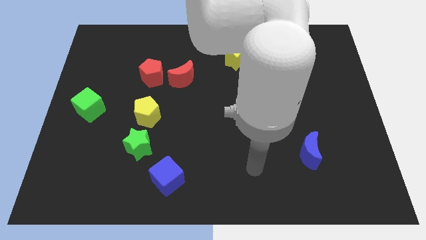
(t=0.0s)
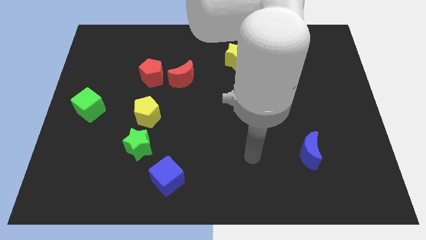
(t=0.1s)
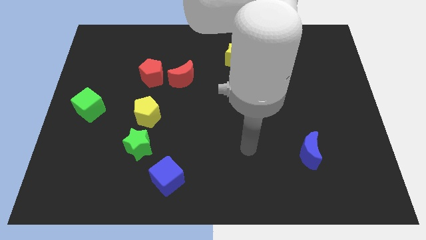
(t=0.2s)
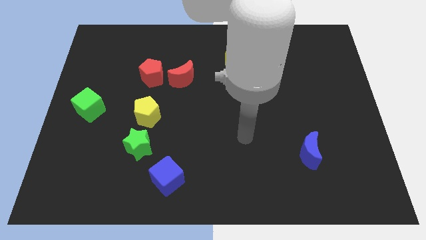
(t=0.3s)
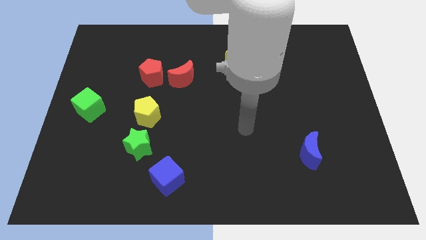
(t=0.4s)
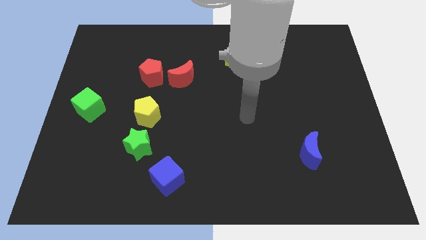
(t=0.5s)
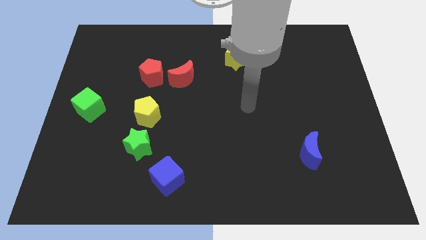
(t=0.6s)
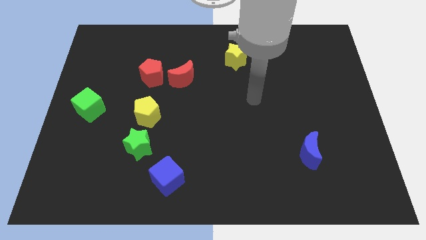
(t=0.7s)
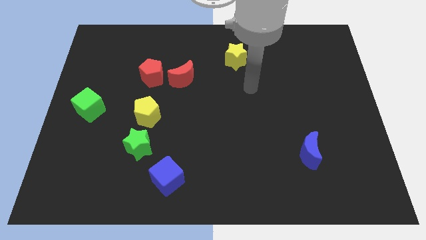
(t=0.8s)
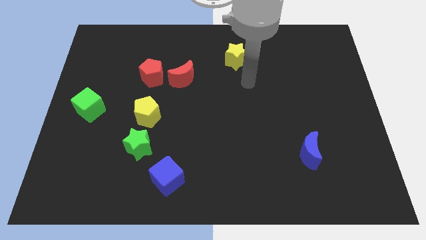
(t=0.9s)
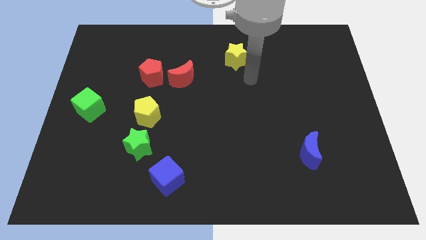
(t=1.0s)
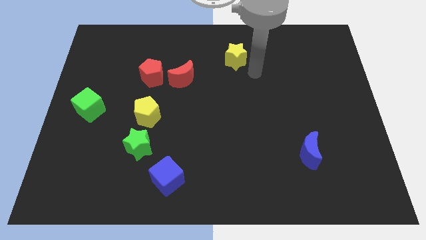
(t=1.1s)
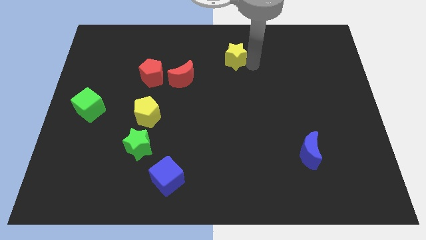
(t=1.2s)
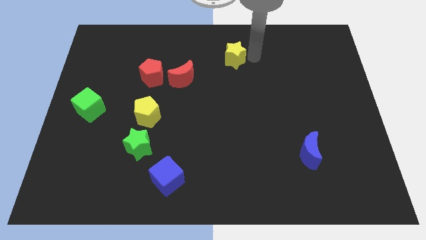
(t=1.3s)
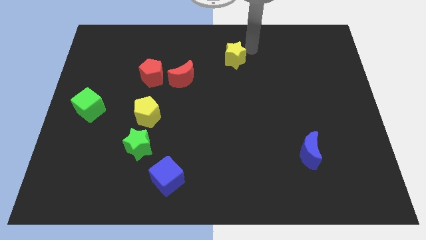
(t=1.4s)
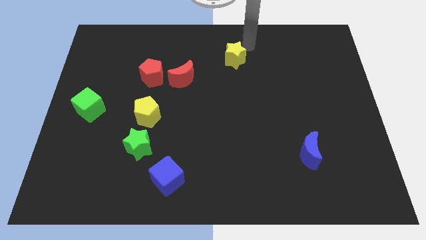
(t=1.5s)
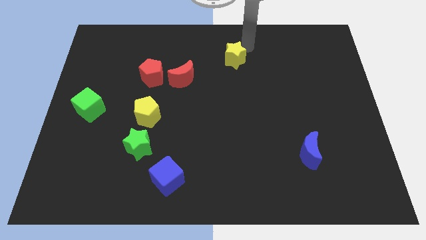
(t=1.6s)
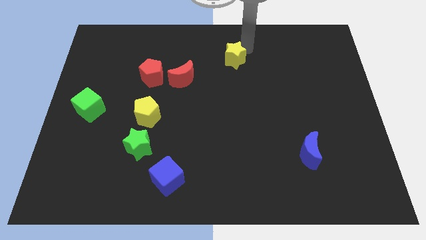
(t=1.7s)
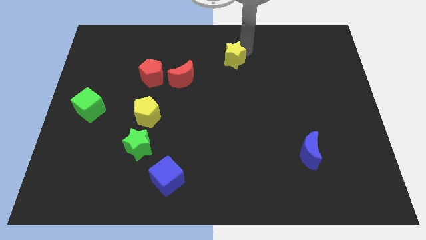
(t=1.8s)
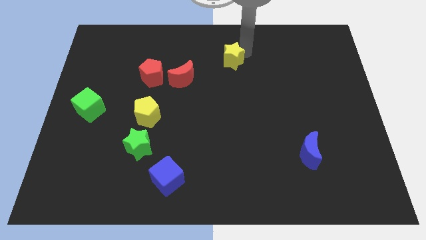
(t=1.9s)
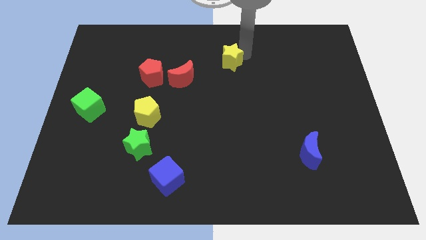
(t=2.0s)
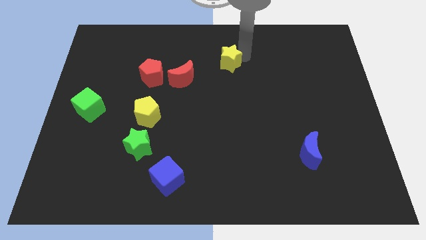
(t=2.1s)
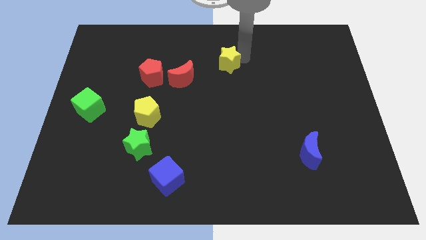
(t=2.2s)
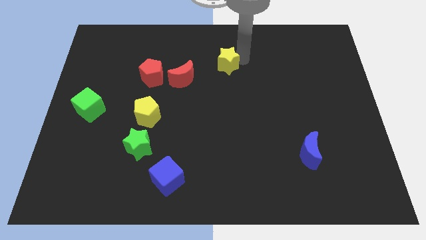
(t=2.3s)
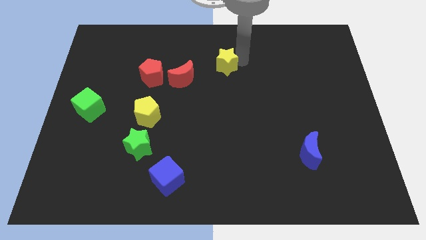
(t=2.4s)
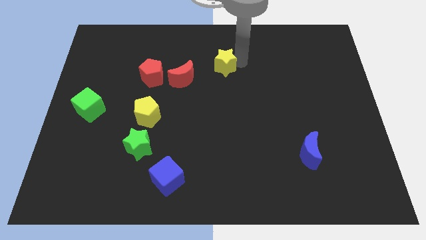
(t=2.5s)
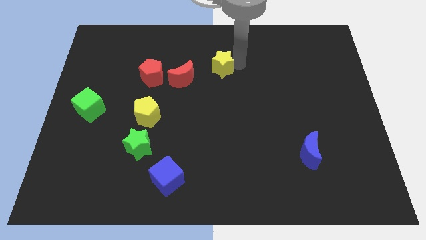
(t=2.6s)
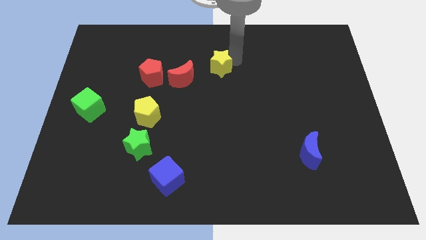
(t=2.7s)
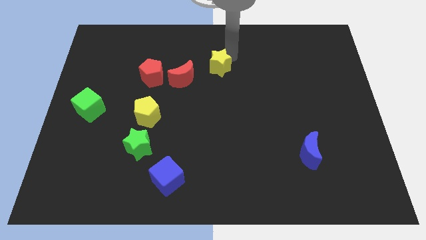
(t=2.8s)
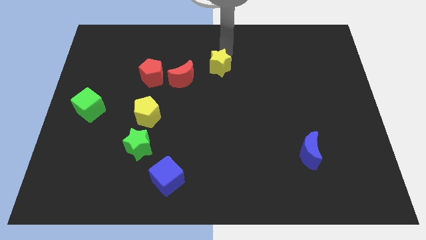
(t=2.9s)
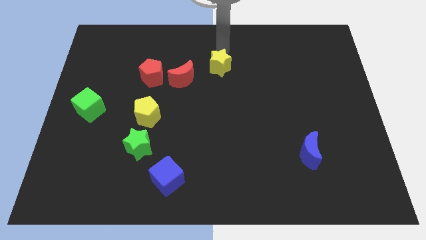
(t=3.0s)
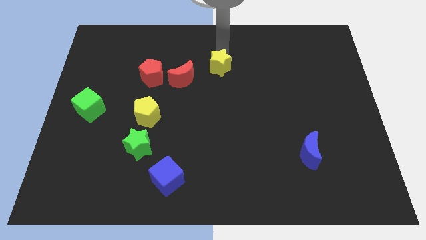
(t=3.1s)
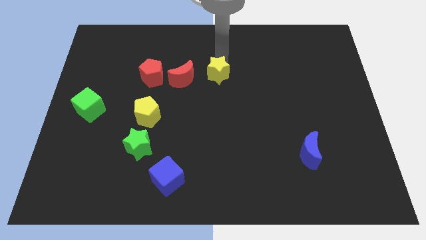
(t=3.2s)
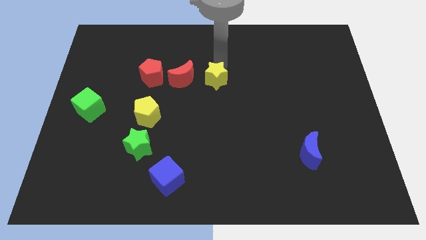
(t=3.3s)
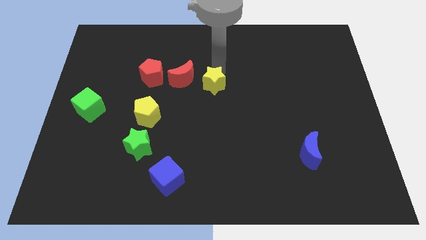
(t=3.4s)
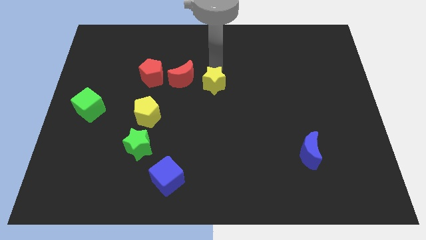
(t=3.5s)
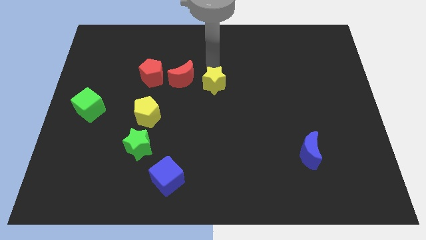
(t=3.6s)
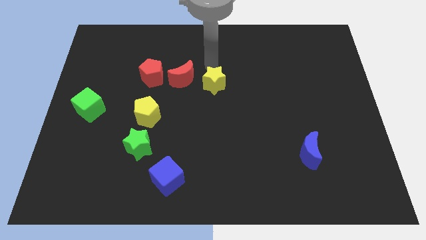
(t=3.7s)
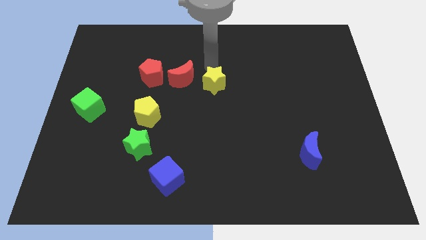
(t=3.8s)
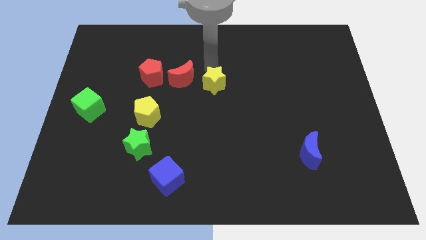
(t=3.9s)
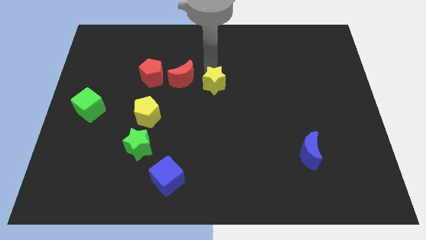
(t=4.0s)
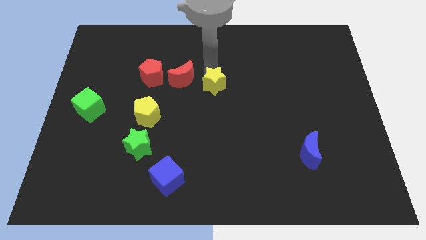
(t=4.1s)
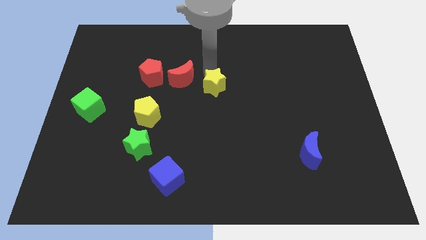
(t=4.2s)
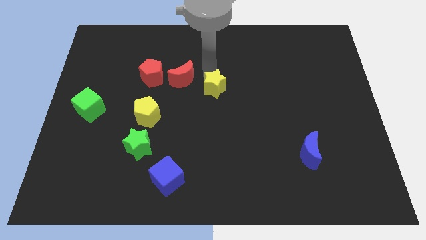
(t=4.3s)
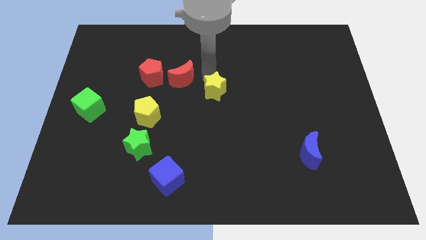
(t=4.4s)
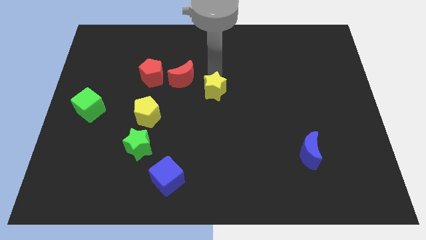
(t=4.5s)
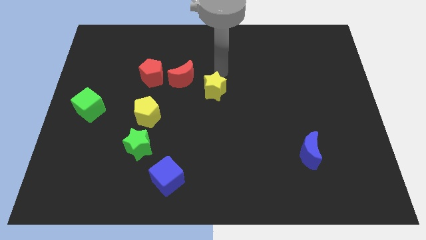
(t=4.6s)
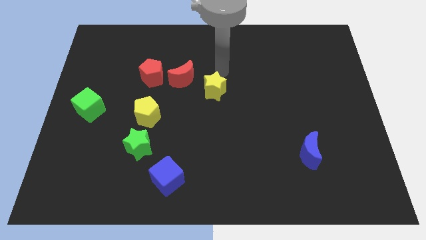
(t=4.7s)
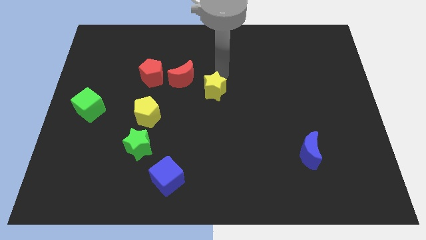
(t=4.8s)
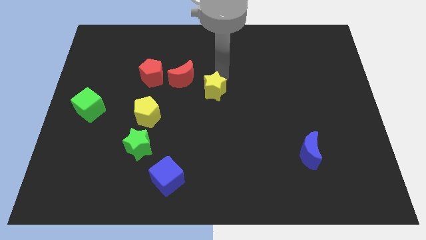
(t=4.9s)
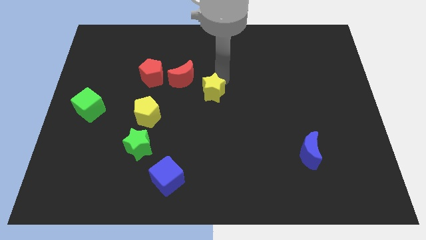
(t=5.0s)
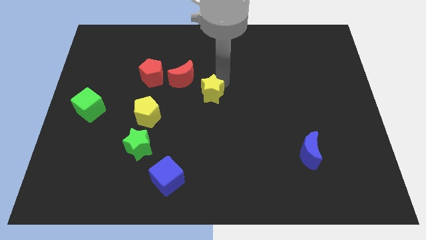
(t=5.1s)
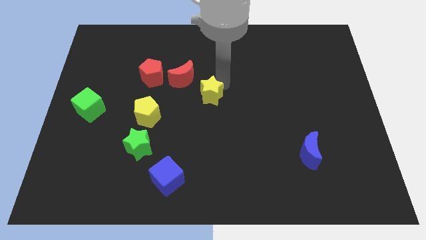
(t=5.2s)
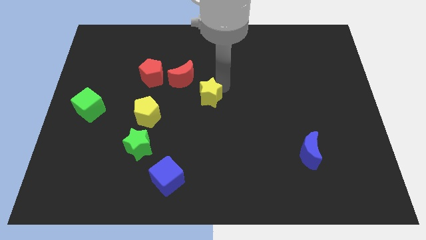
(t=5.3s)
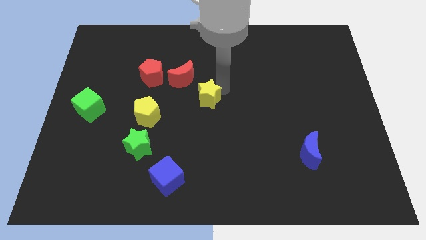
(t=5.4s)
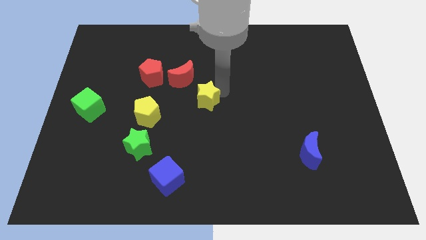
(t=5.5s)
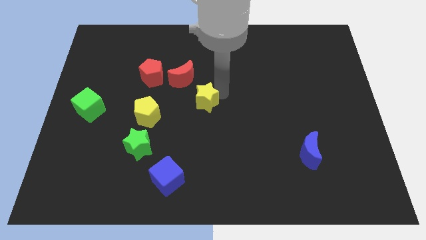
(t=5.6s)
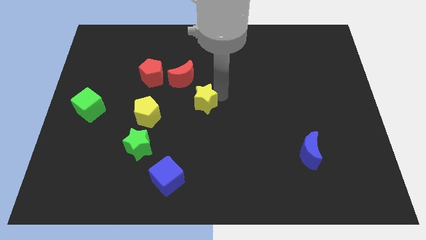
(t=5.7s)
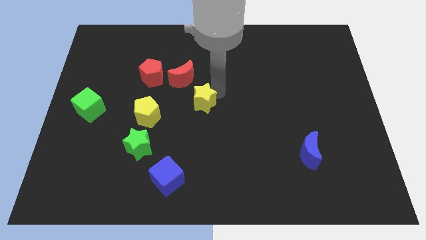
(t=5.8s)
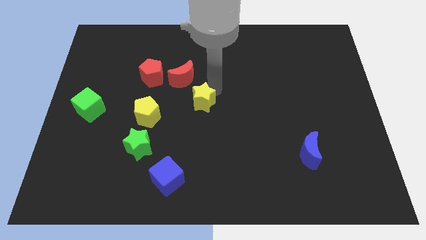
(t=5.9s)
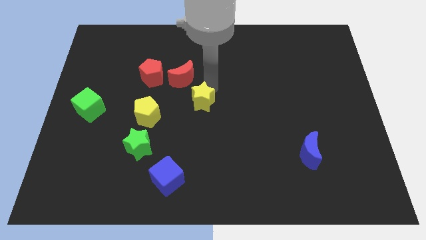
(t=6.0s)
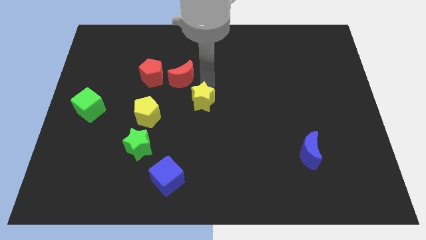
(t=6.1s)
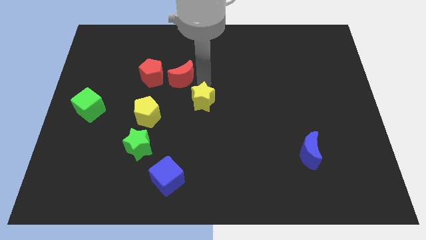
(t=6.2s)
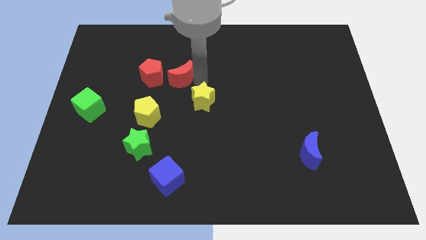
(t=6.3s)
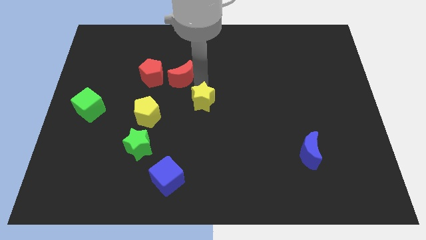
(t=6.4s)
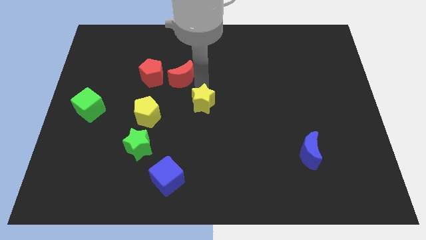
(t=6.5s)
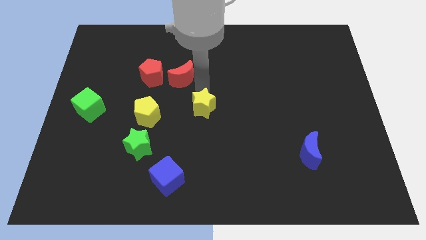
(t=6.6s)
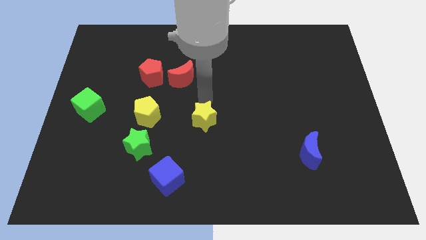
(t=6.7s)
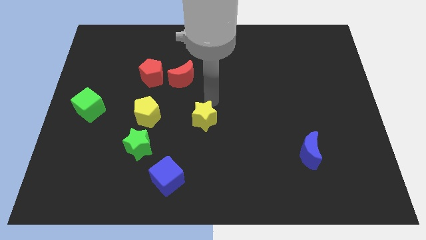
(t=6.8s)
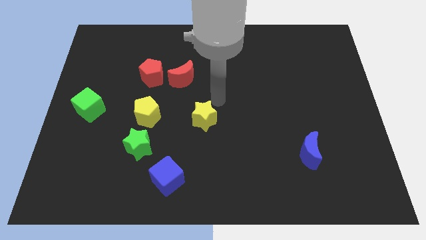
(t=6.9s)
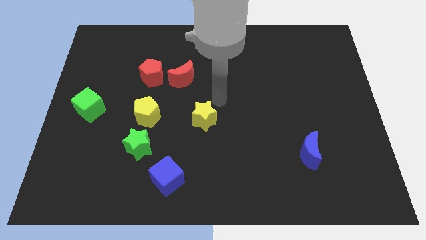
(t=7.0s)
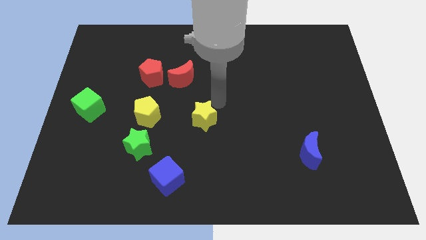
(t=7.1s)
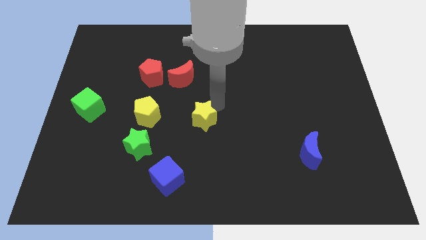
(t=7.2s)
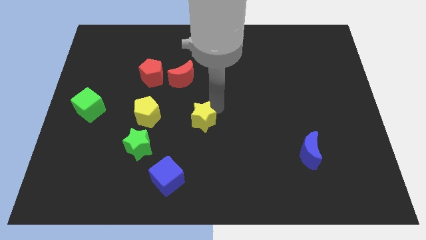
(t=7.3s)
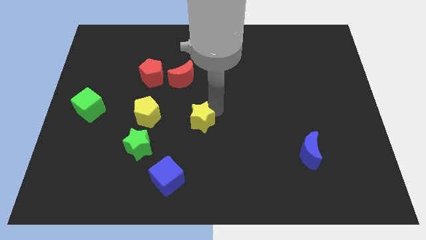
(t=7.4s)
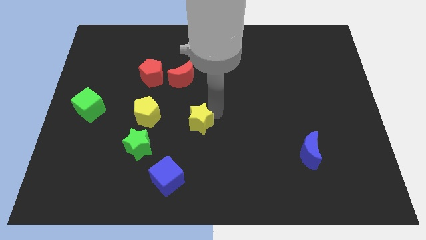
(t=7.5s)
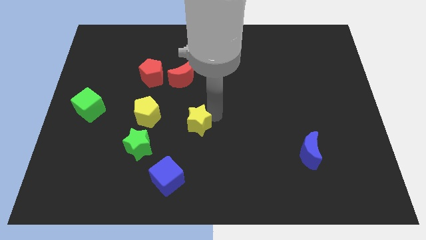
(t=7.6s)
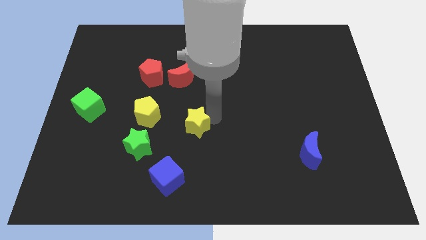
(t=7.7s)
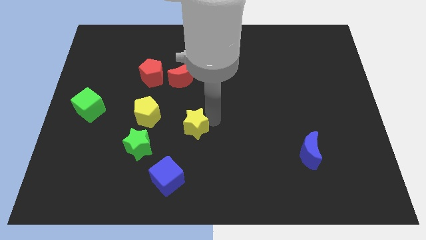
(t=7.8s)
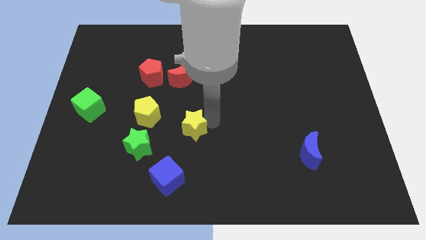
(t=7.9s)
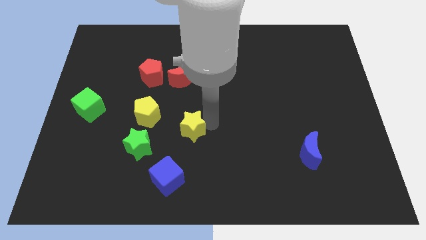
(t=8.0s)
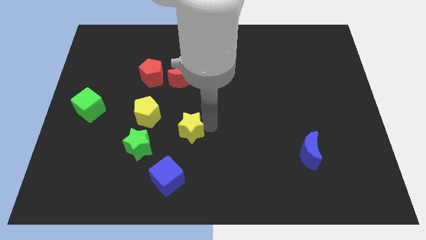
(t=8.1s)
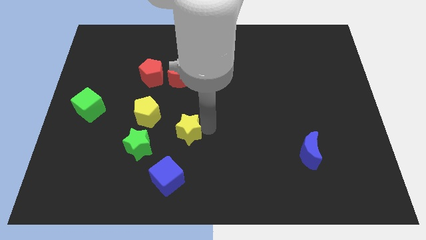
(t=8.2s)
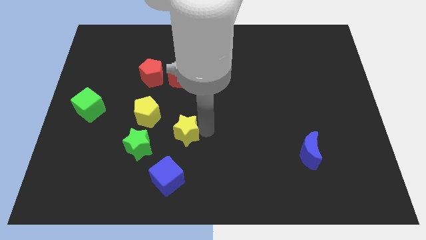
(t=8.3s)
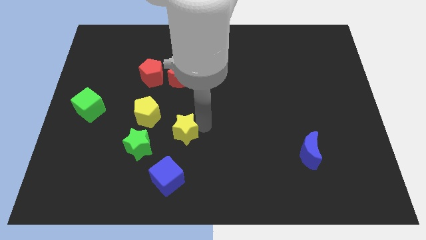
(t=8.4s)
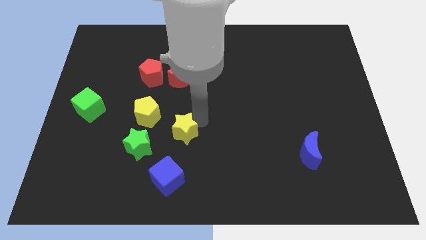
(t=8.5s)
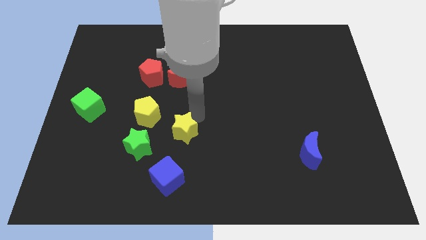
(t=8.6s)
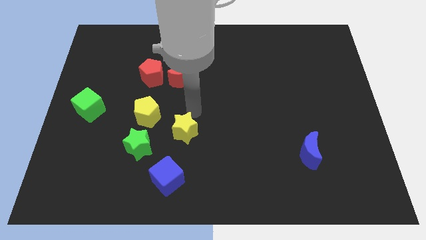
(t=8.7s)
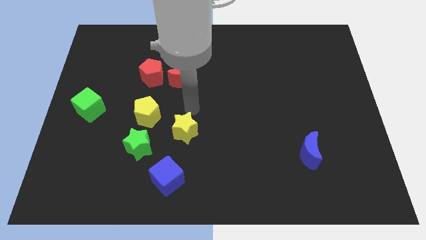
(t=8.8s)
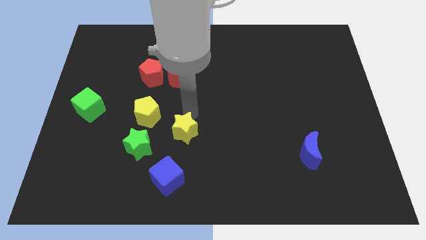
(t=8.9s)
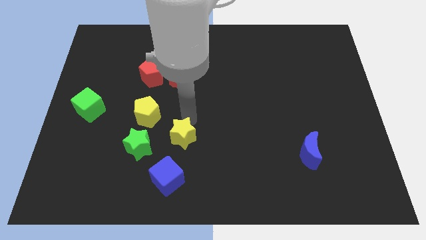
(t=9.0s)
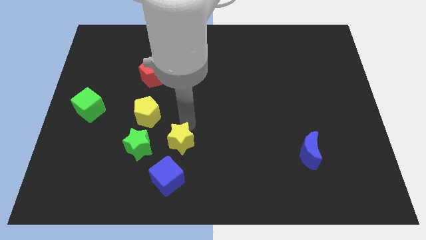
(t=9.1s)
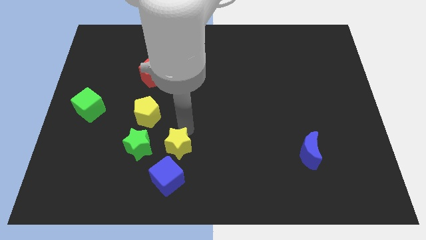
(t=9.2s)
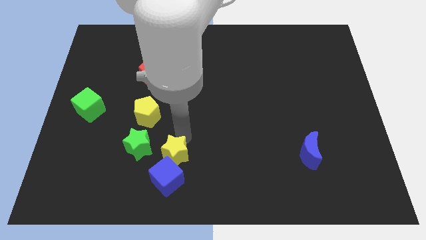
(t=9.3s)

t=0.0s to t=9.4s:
move the yellow star towards the blue cube
